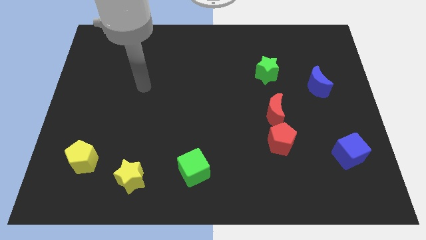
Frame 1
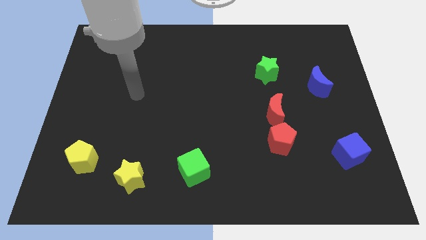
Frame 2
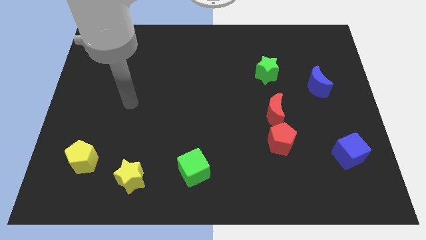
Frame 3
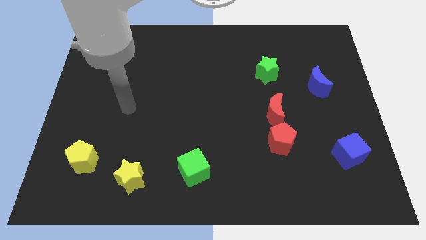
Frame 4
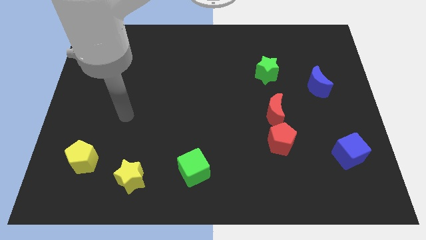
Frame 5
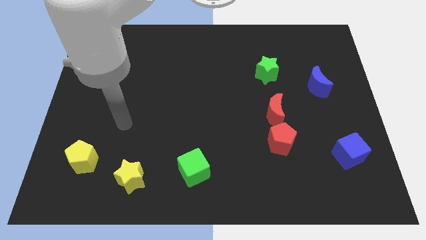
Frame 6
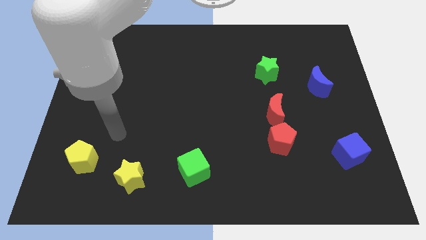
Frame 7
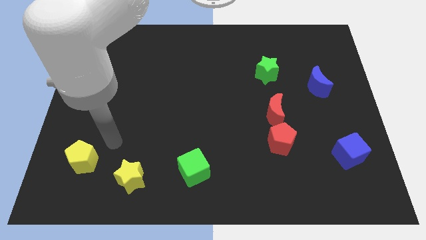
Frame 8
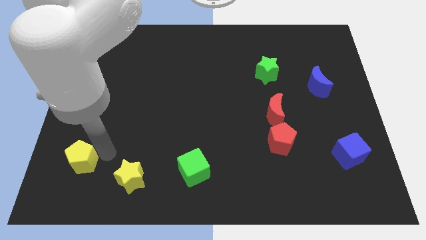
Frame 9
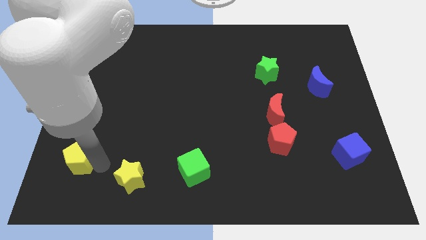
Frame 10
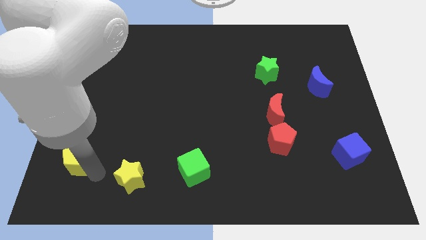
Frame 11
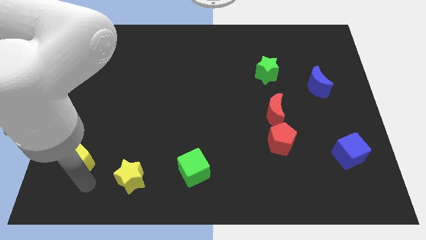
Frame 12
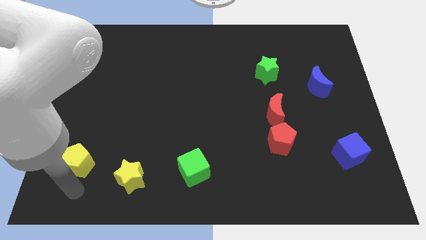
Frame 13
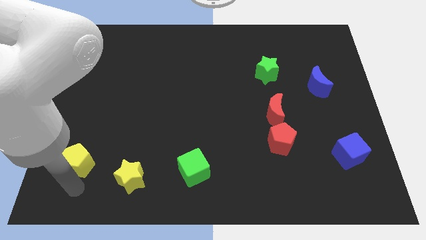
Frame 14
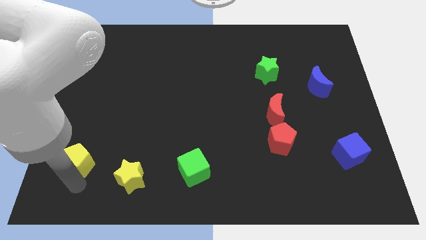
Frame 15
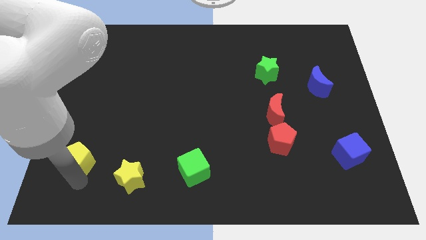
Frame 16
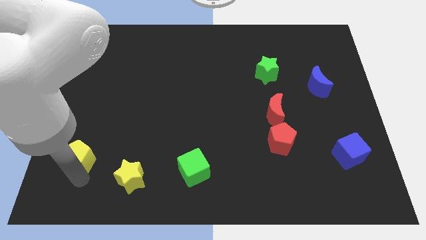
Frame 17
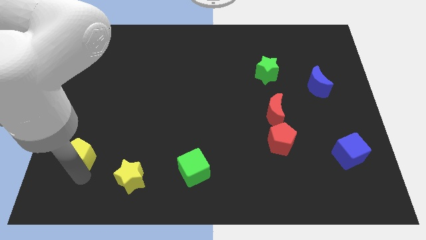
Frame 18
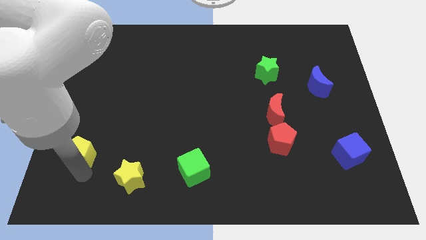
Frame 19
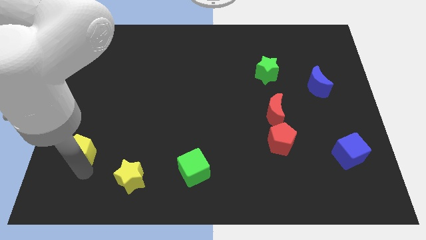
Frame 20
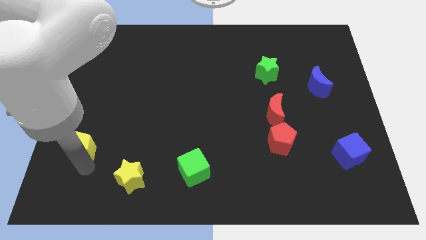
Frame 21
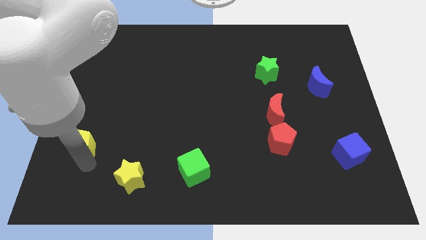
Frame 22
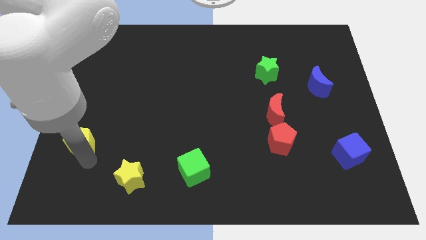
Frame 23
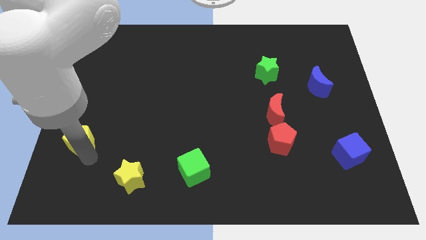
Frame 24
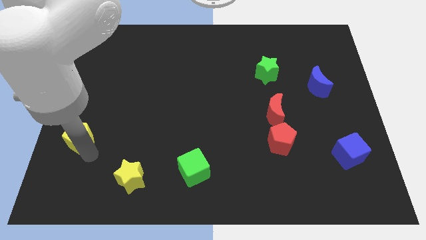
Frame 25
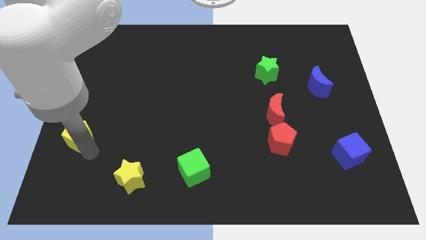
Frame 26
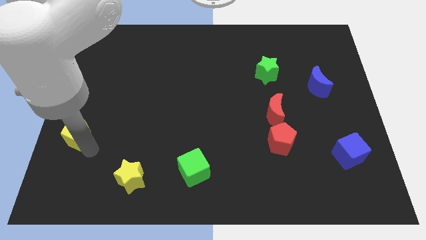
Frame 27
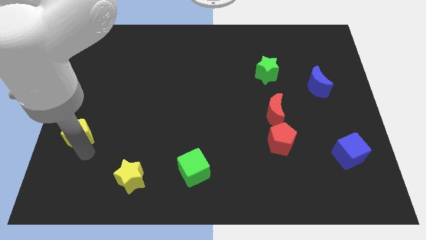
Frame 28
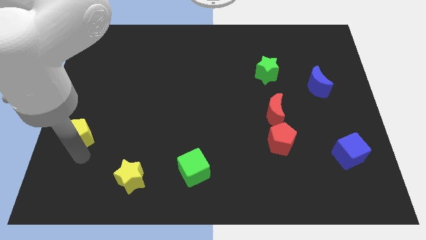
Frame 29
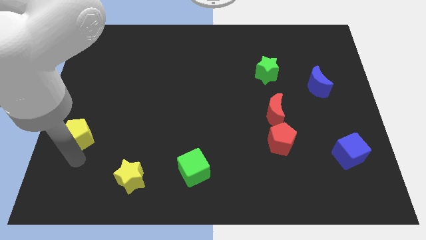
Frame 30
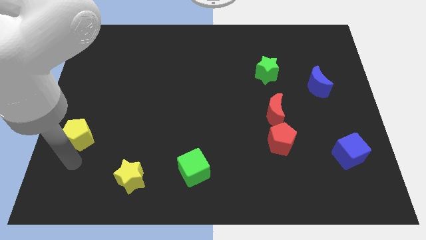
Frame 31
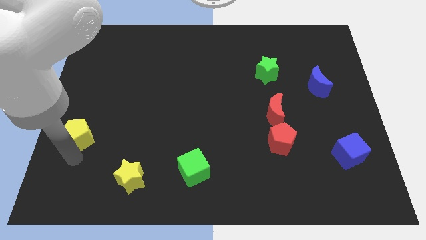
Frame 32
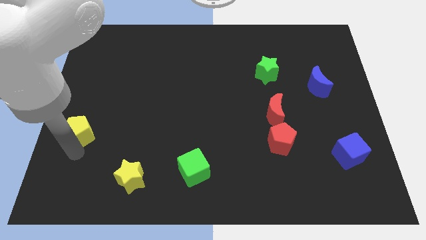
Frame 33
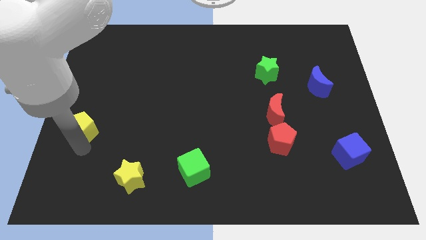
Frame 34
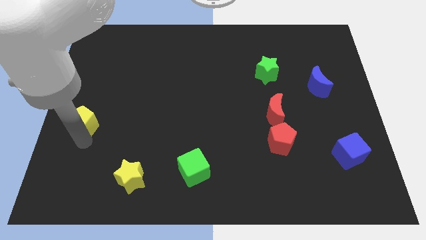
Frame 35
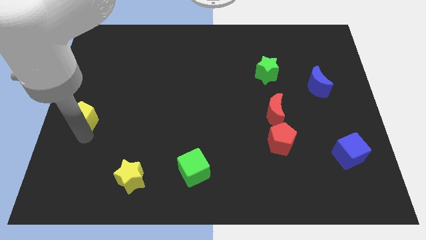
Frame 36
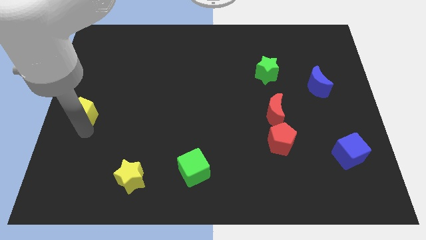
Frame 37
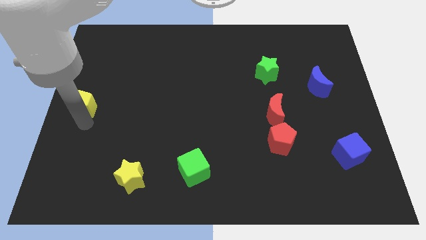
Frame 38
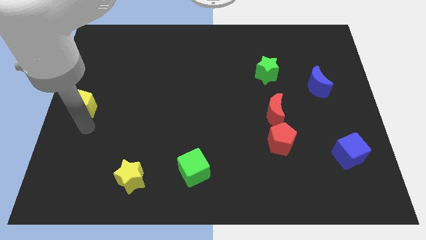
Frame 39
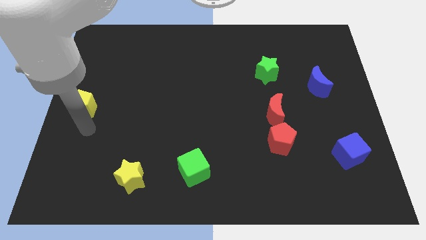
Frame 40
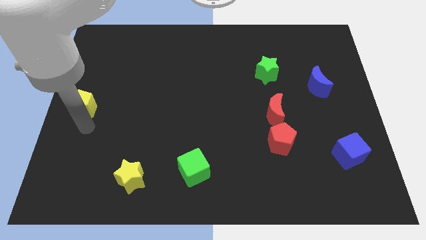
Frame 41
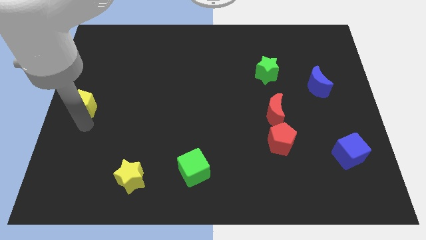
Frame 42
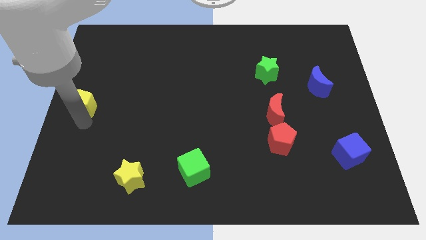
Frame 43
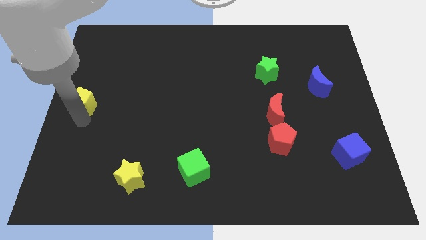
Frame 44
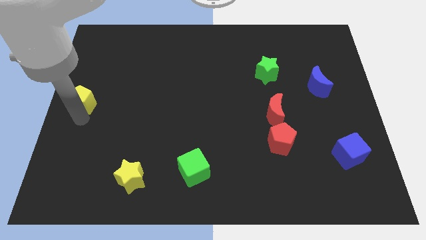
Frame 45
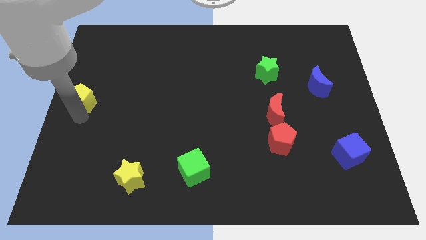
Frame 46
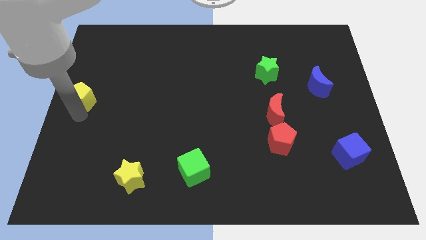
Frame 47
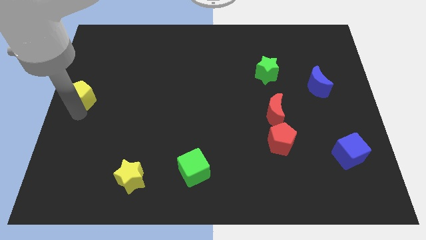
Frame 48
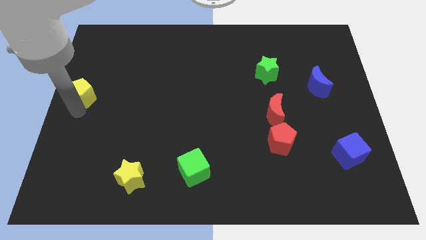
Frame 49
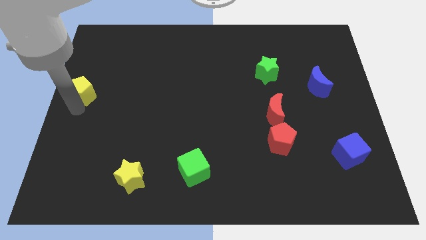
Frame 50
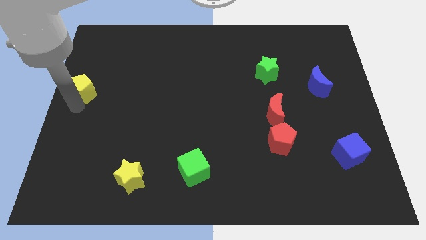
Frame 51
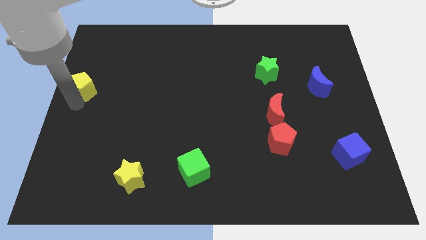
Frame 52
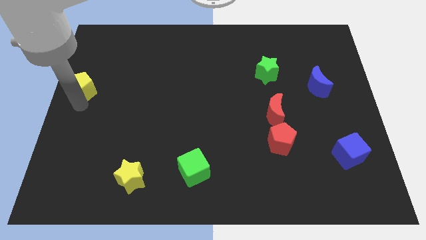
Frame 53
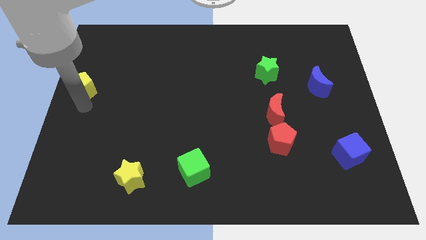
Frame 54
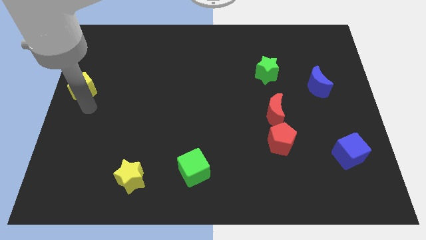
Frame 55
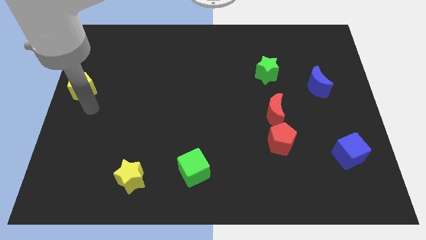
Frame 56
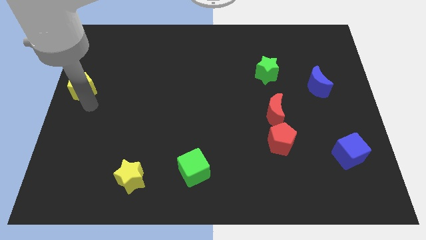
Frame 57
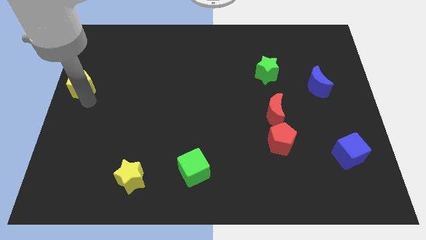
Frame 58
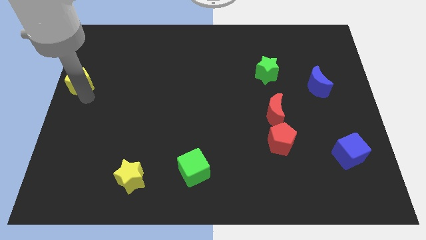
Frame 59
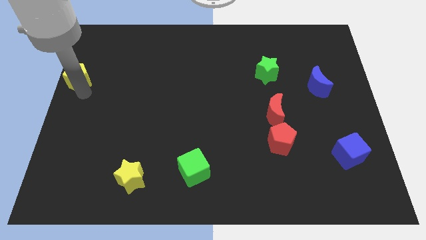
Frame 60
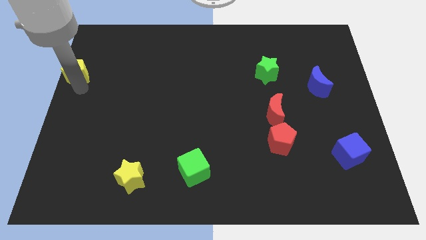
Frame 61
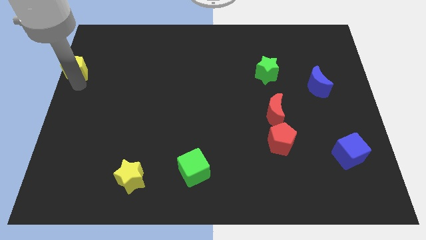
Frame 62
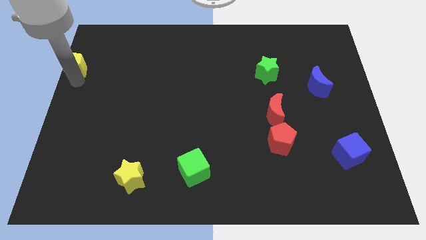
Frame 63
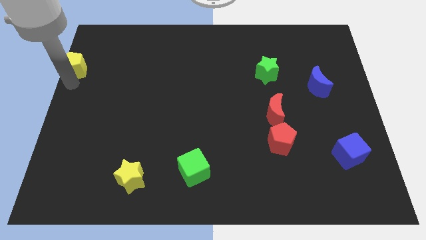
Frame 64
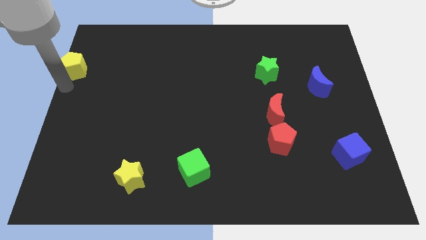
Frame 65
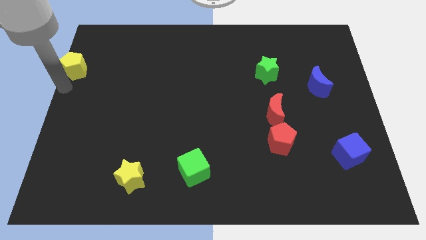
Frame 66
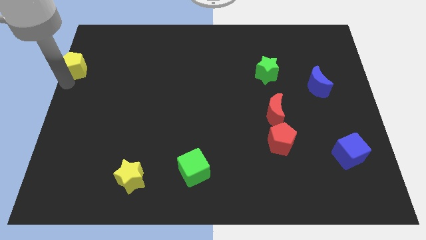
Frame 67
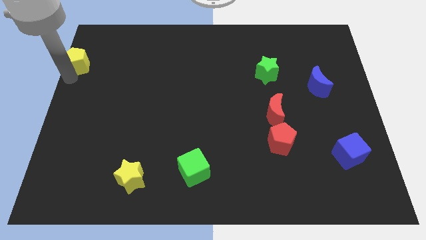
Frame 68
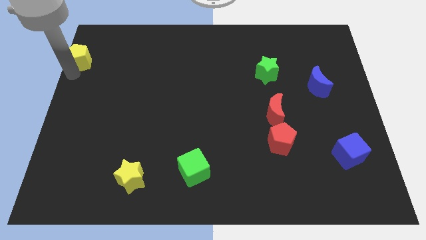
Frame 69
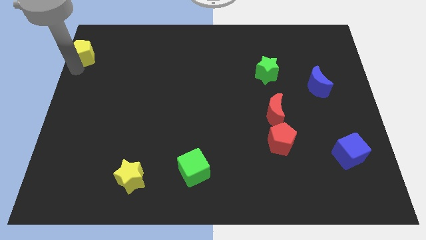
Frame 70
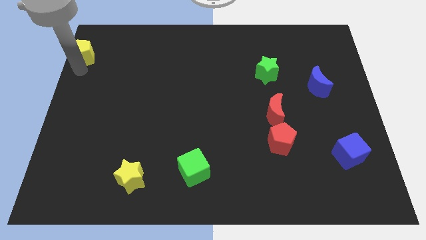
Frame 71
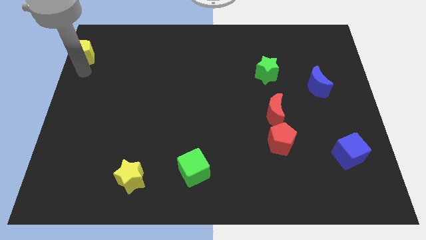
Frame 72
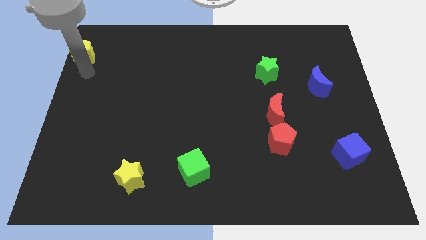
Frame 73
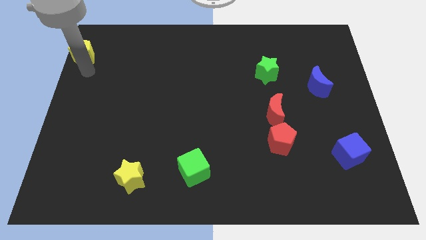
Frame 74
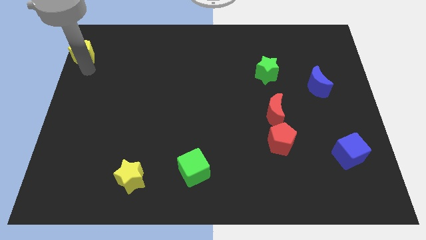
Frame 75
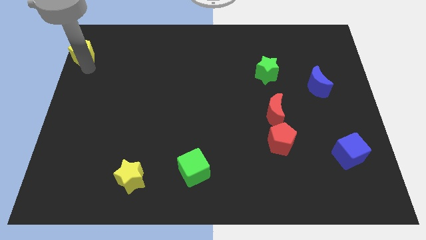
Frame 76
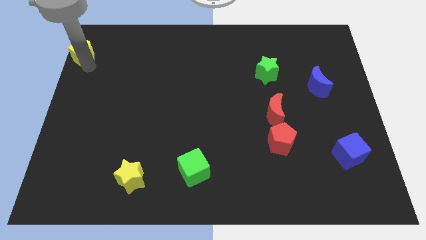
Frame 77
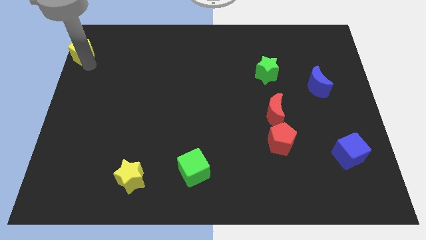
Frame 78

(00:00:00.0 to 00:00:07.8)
put the yellow pentagon to the upper left corner
